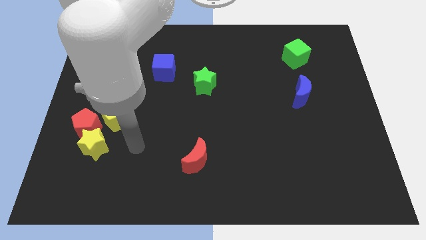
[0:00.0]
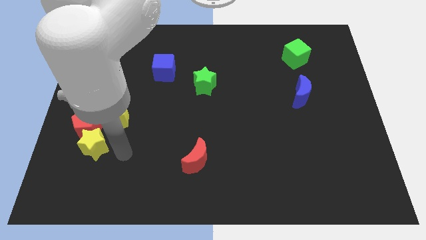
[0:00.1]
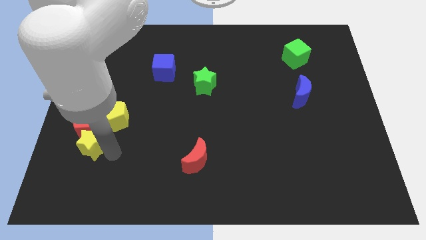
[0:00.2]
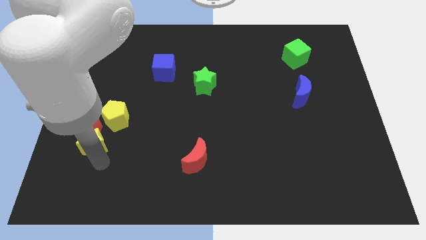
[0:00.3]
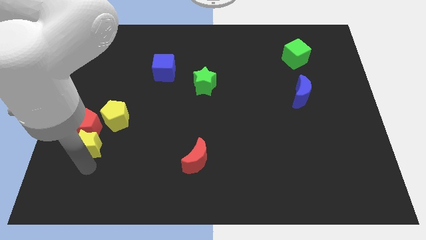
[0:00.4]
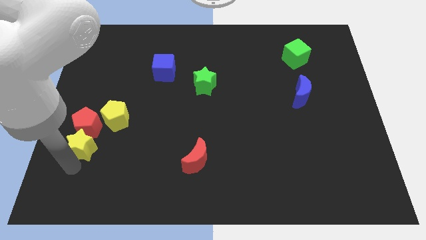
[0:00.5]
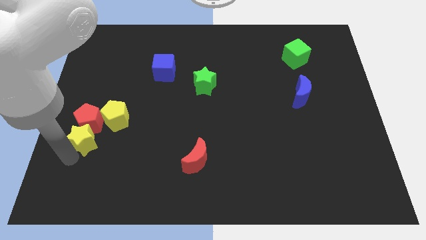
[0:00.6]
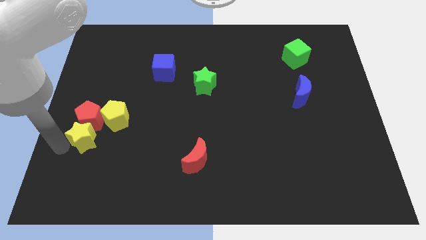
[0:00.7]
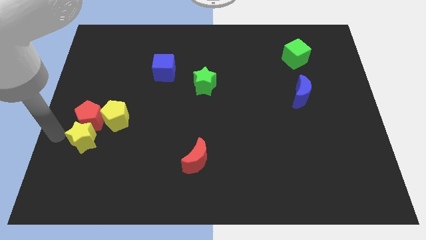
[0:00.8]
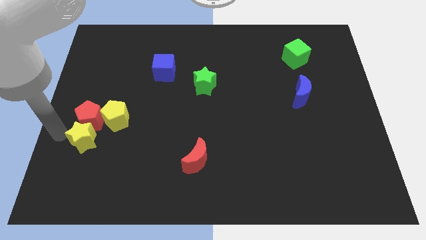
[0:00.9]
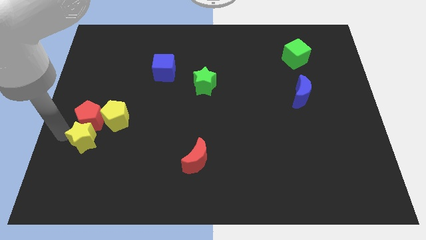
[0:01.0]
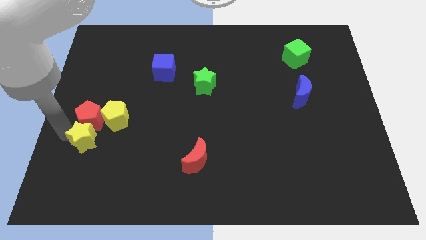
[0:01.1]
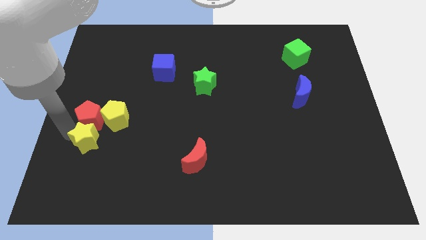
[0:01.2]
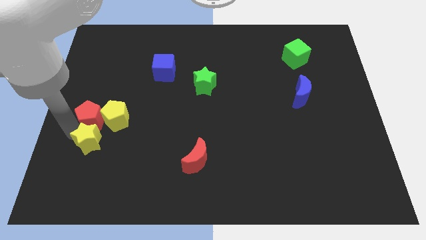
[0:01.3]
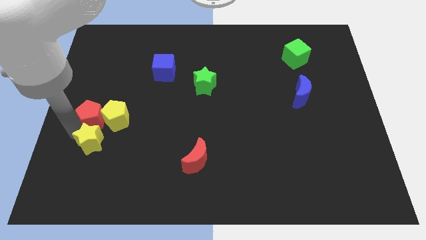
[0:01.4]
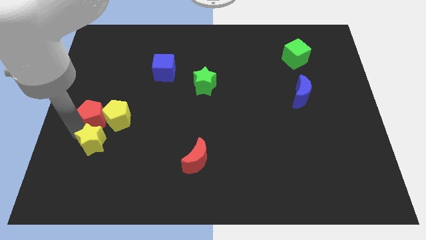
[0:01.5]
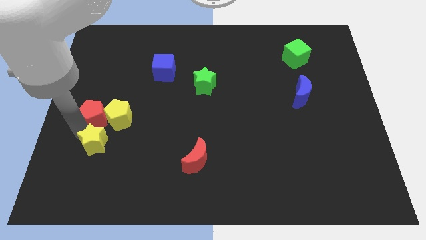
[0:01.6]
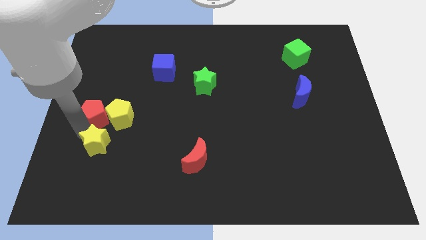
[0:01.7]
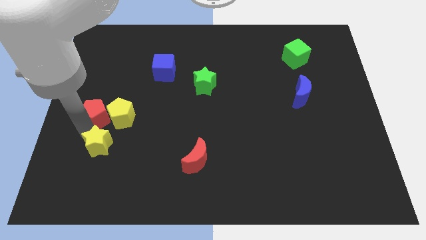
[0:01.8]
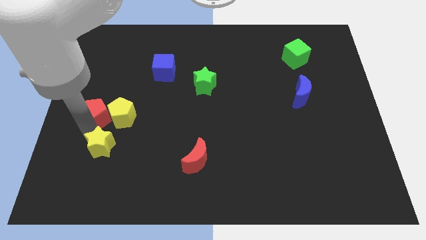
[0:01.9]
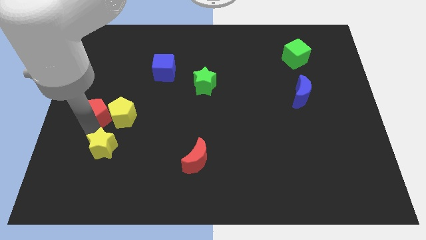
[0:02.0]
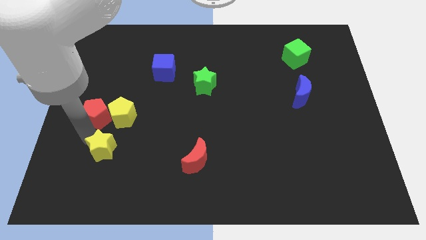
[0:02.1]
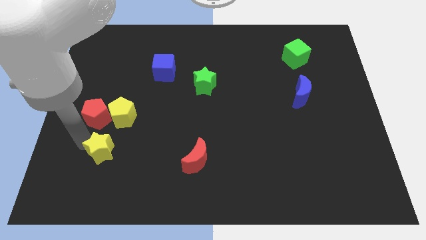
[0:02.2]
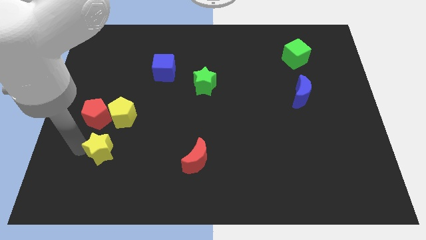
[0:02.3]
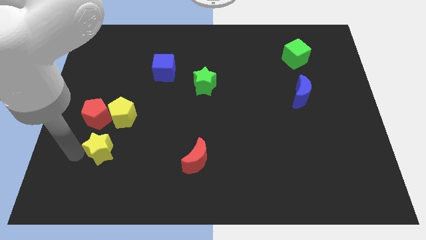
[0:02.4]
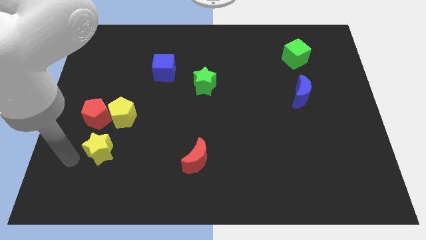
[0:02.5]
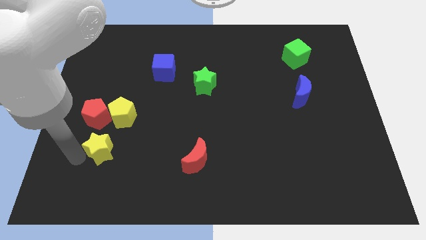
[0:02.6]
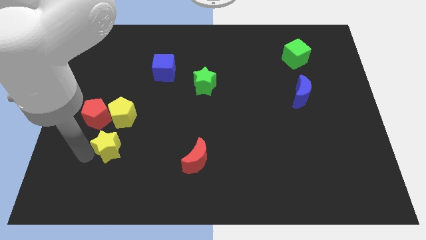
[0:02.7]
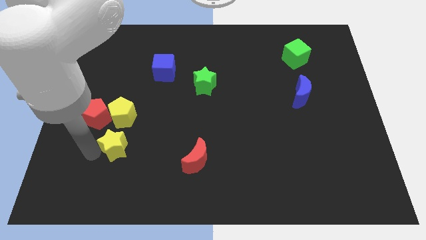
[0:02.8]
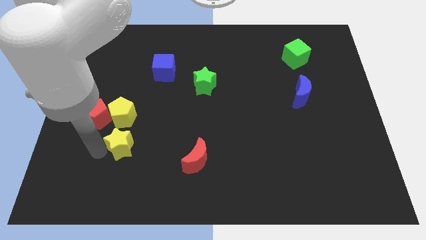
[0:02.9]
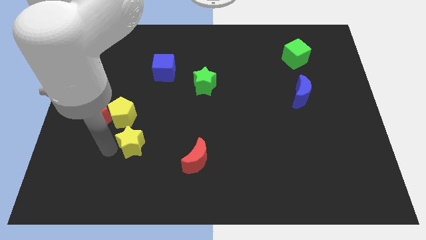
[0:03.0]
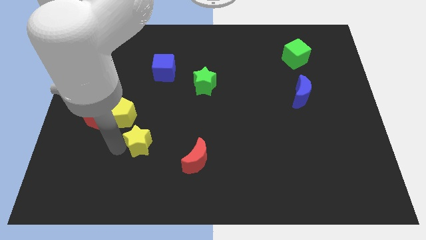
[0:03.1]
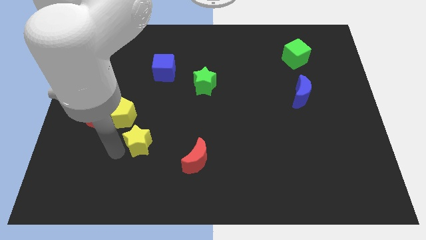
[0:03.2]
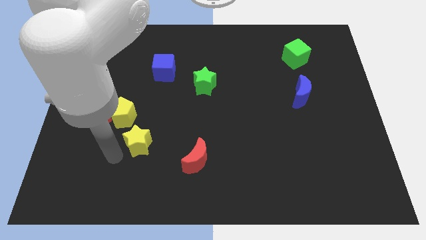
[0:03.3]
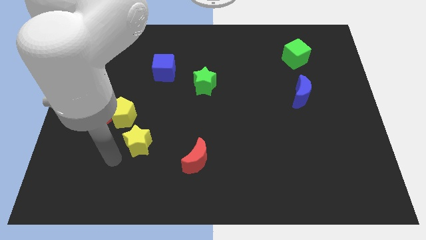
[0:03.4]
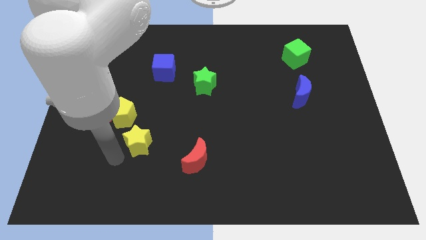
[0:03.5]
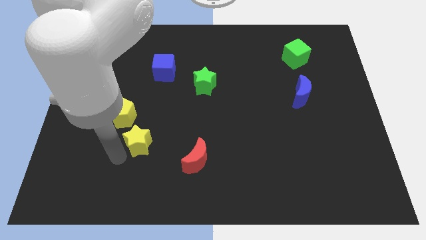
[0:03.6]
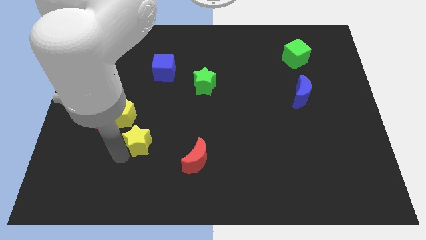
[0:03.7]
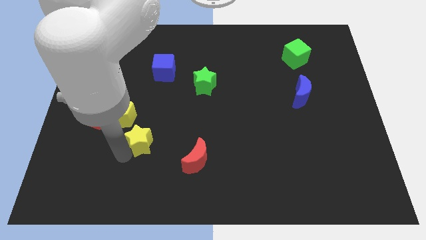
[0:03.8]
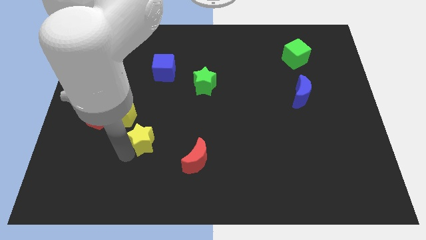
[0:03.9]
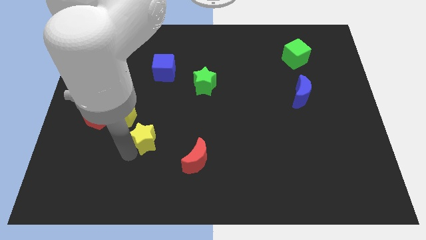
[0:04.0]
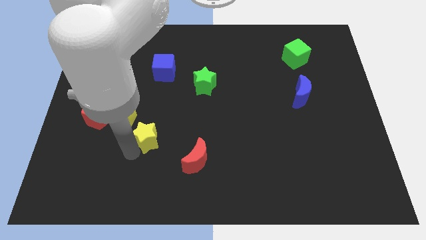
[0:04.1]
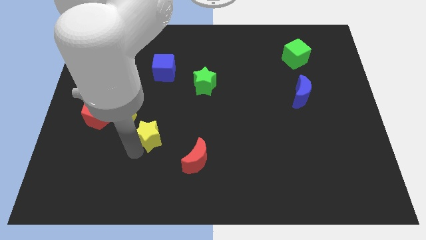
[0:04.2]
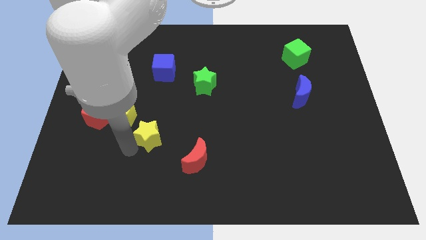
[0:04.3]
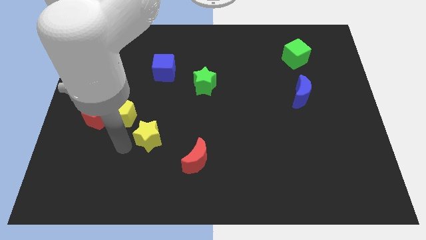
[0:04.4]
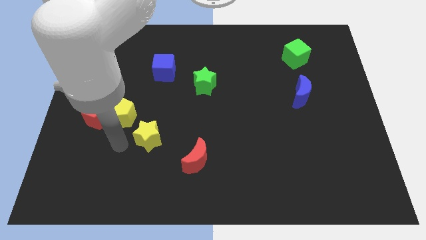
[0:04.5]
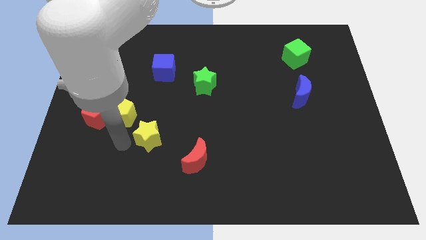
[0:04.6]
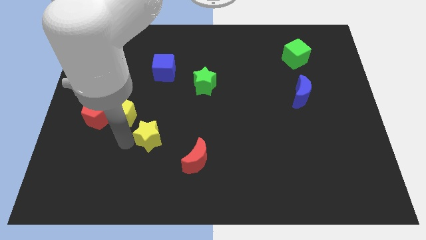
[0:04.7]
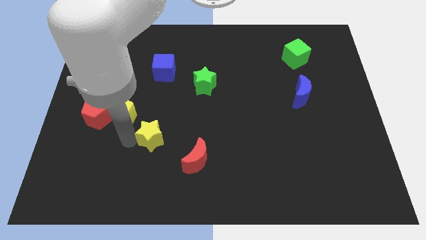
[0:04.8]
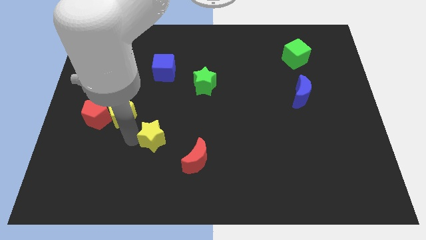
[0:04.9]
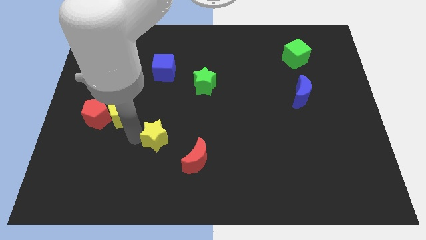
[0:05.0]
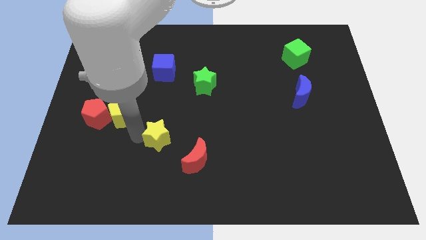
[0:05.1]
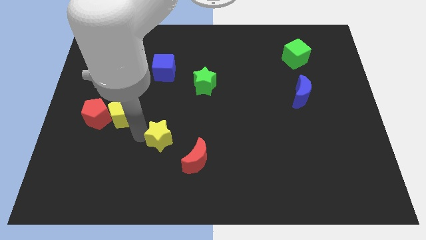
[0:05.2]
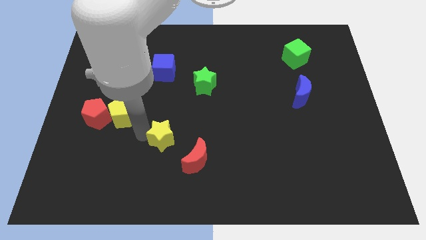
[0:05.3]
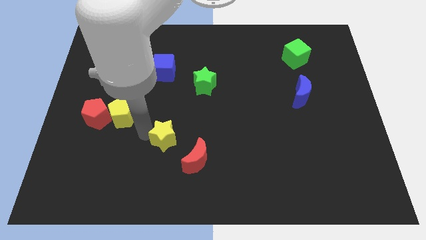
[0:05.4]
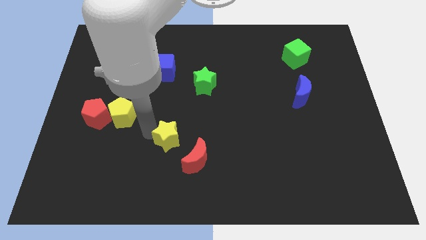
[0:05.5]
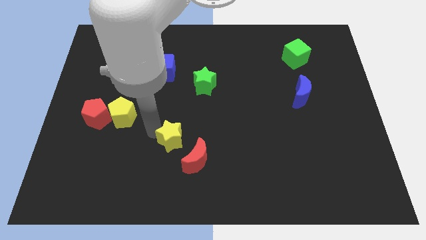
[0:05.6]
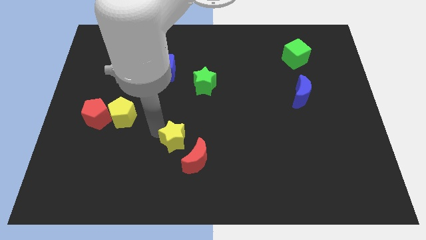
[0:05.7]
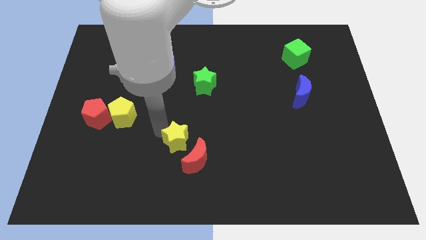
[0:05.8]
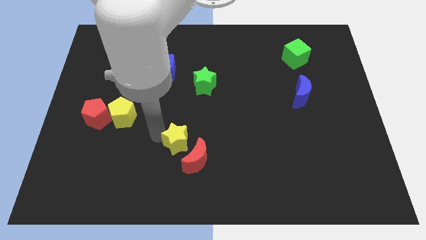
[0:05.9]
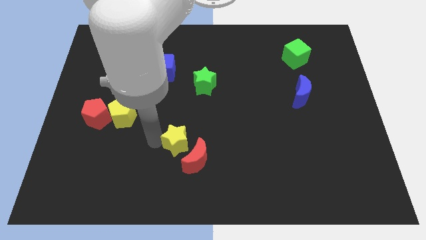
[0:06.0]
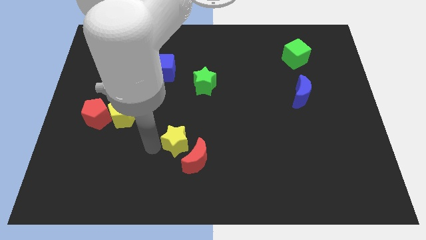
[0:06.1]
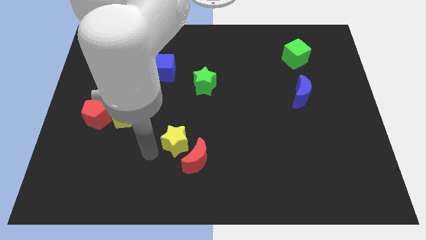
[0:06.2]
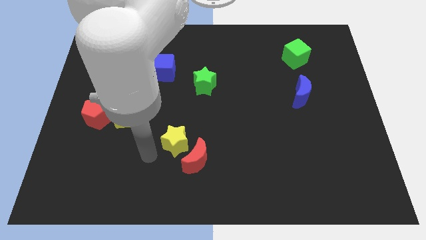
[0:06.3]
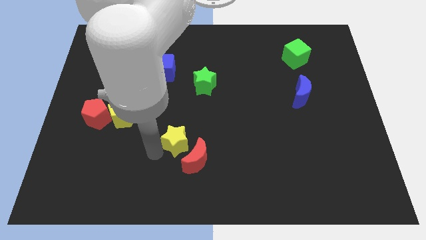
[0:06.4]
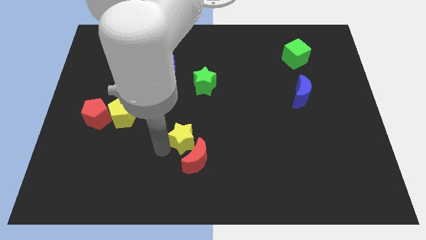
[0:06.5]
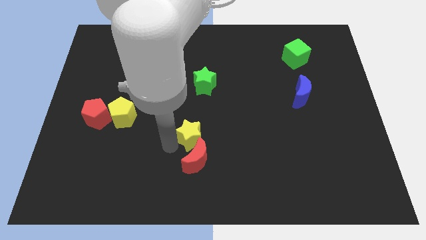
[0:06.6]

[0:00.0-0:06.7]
slide the yellow star right

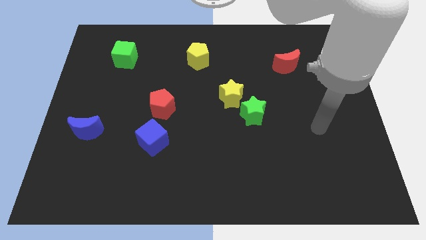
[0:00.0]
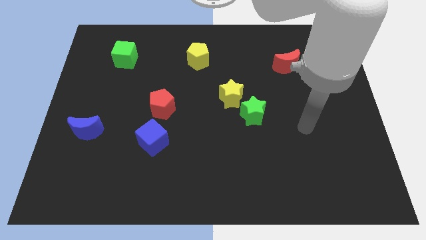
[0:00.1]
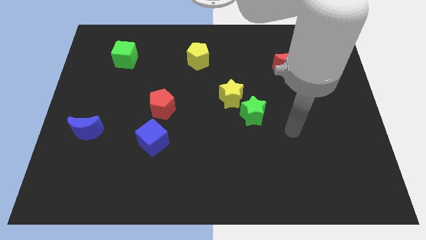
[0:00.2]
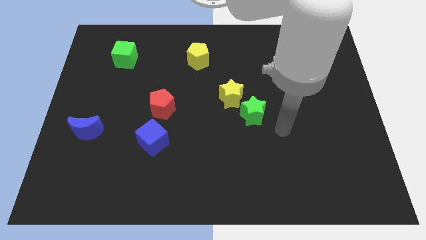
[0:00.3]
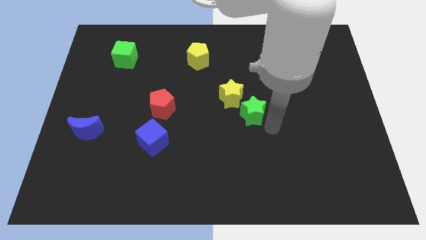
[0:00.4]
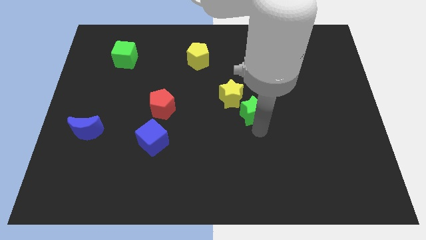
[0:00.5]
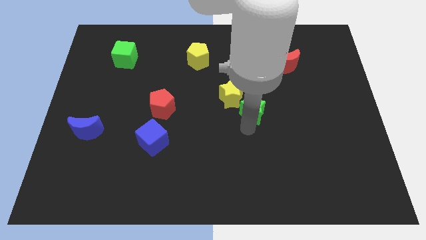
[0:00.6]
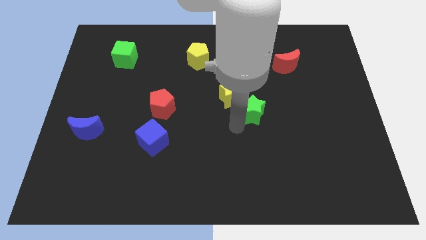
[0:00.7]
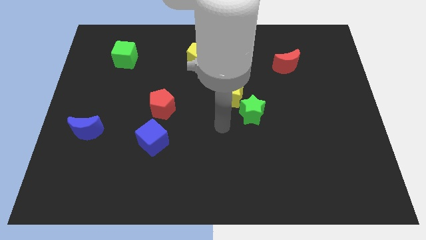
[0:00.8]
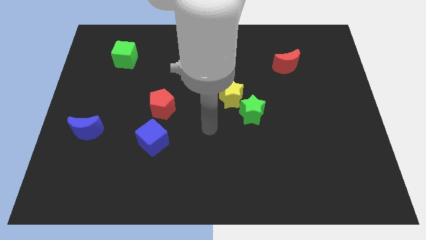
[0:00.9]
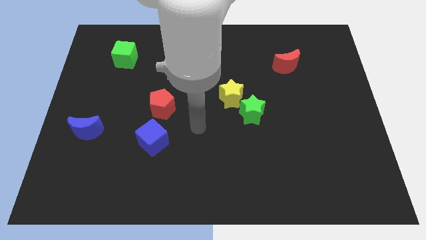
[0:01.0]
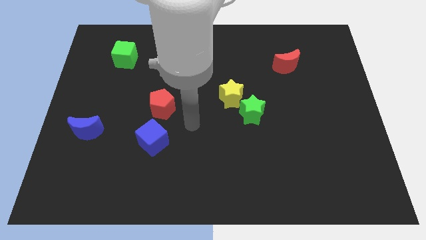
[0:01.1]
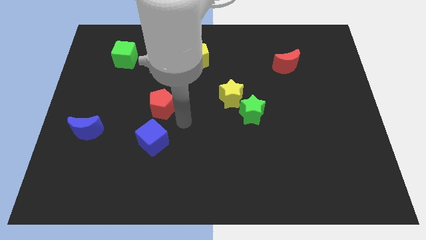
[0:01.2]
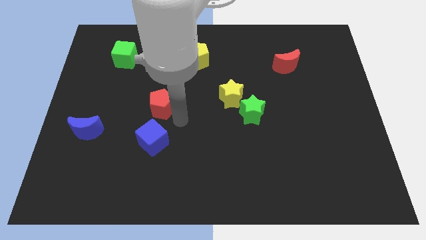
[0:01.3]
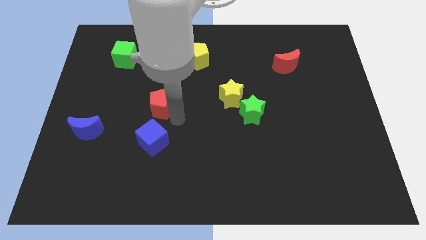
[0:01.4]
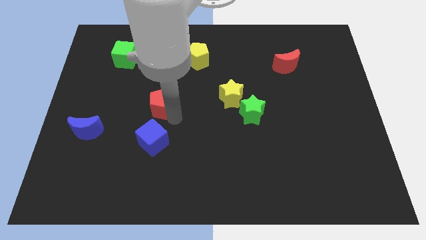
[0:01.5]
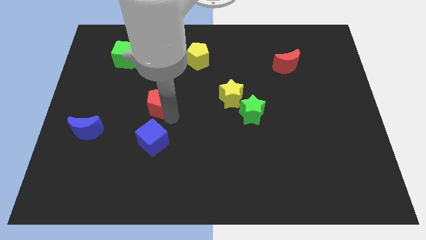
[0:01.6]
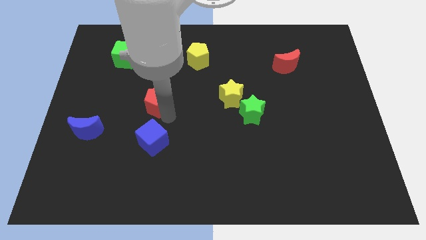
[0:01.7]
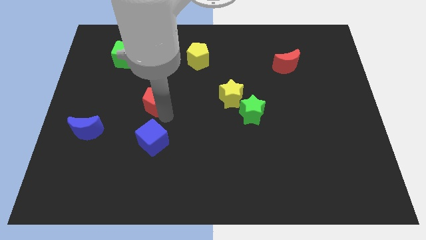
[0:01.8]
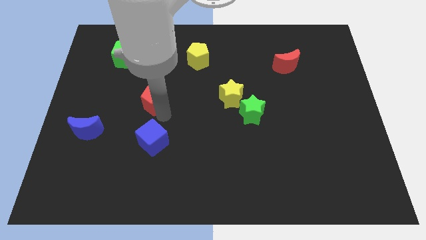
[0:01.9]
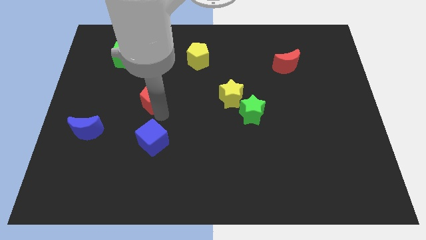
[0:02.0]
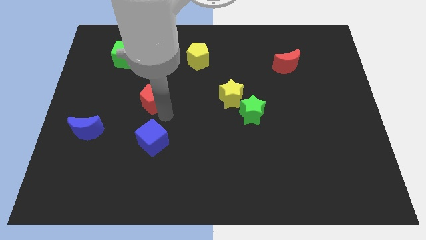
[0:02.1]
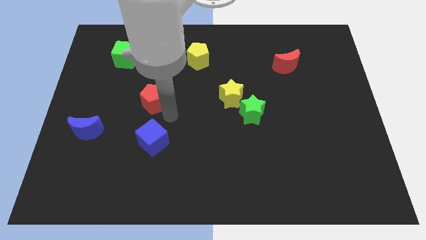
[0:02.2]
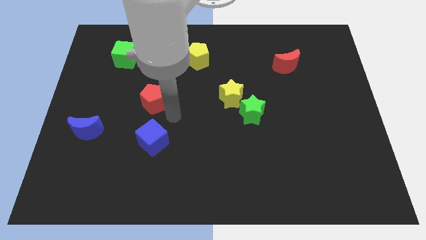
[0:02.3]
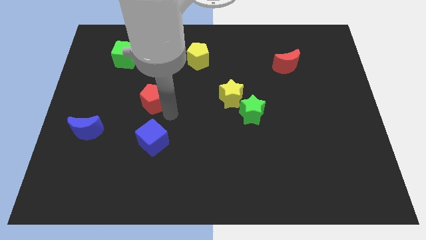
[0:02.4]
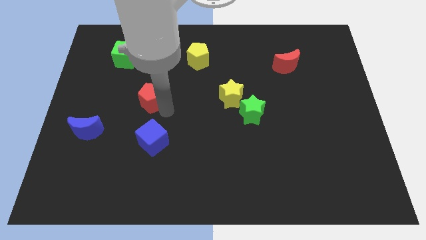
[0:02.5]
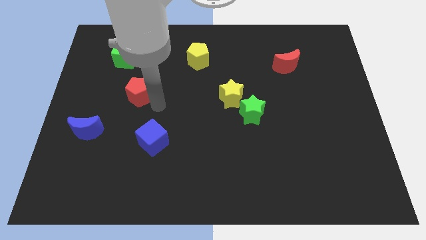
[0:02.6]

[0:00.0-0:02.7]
push the red pentagon up and then left a little bit
